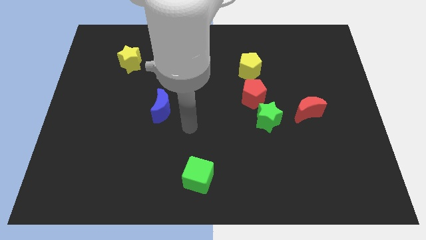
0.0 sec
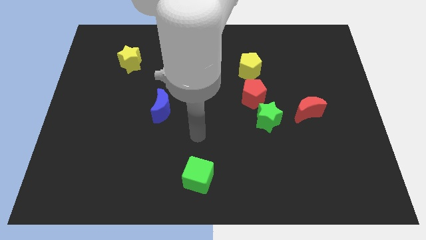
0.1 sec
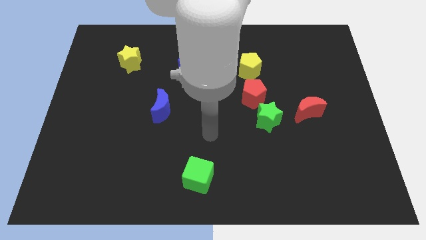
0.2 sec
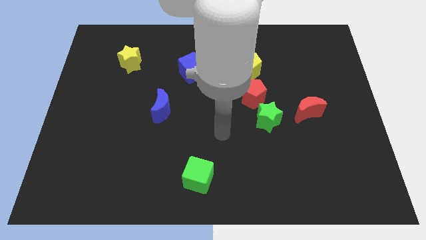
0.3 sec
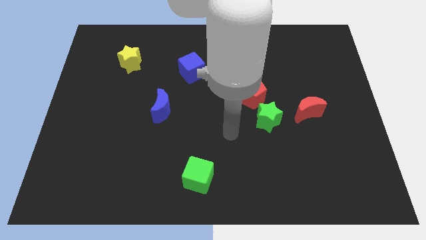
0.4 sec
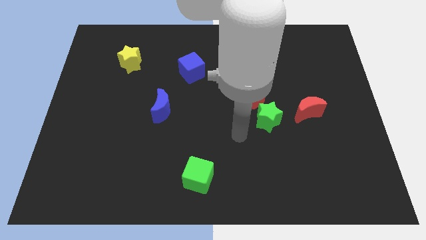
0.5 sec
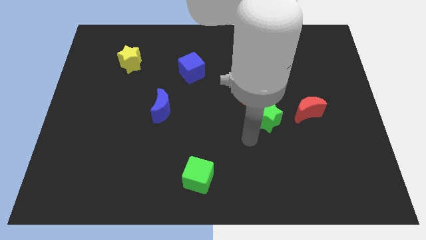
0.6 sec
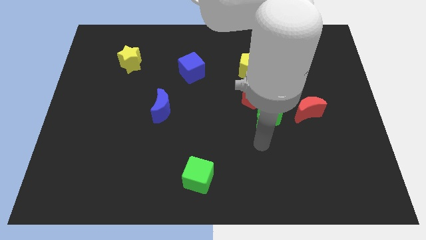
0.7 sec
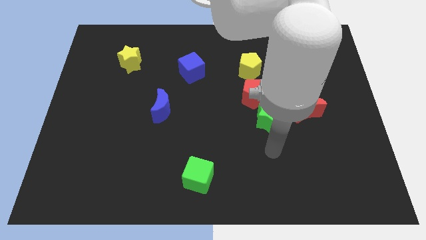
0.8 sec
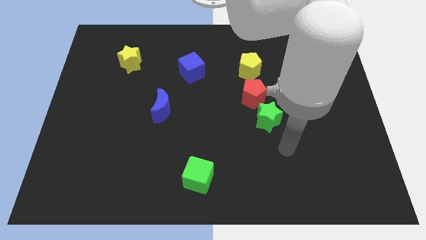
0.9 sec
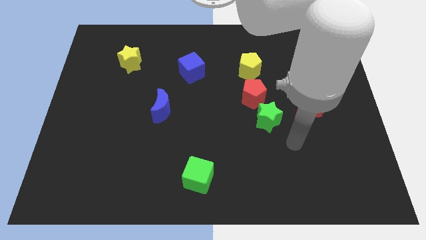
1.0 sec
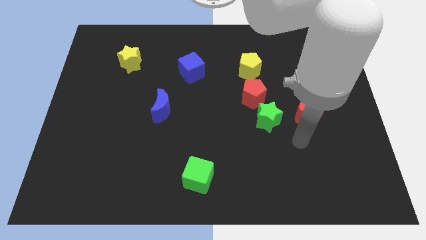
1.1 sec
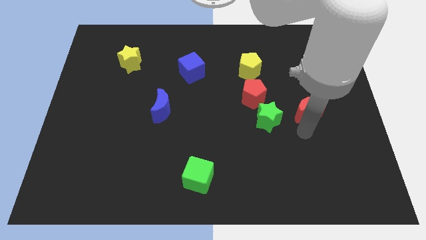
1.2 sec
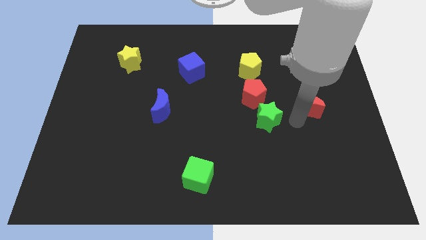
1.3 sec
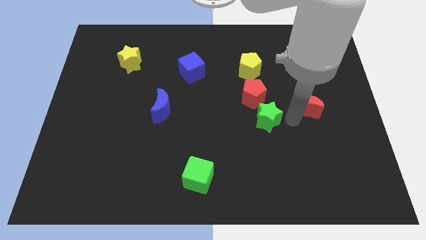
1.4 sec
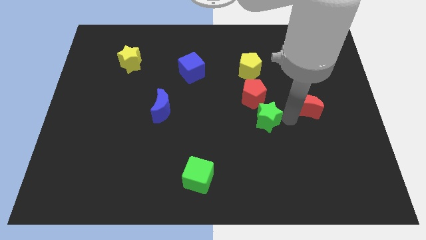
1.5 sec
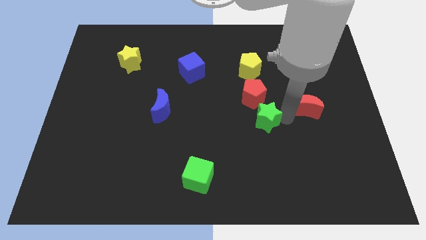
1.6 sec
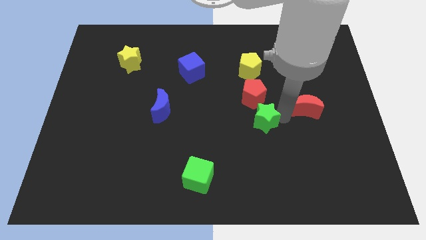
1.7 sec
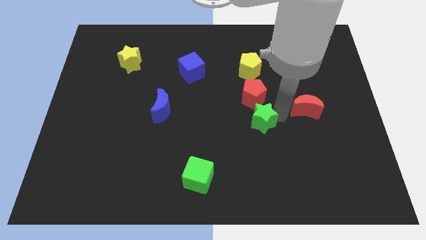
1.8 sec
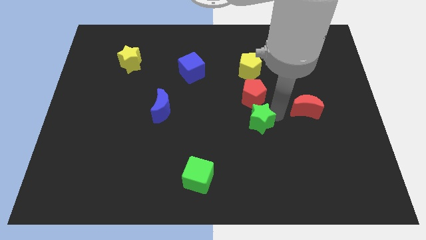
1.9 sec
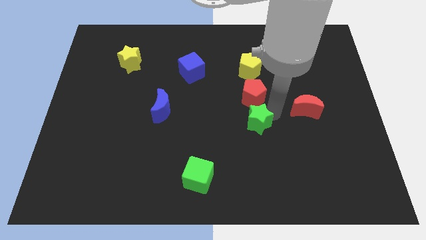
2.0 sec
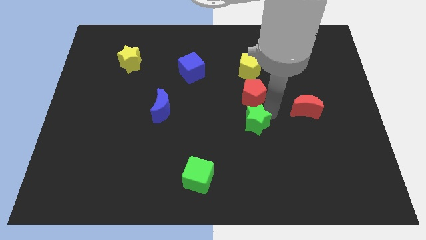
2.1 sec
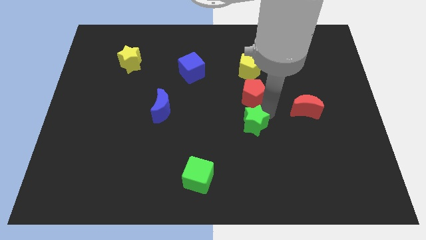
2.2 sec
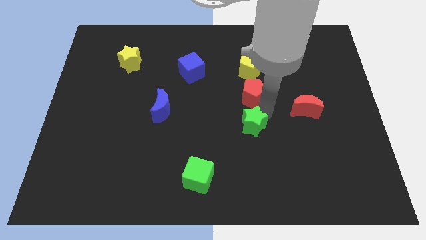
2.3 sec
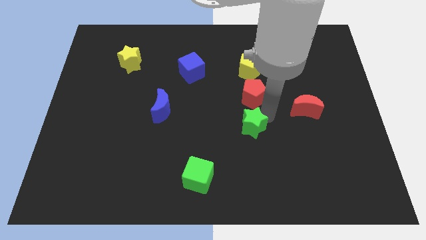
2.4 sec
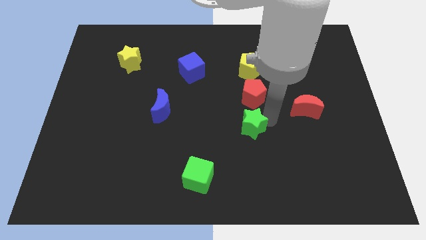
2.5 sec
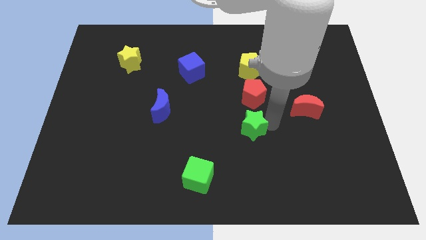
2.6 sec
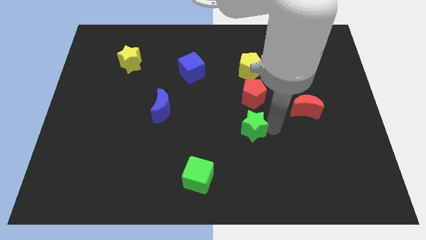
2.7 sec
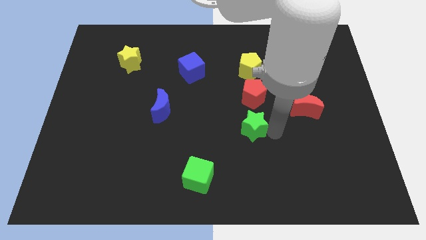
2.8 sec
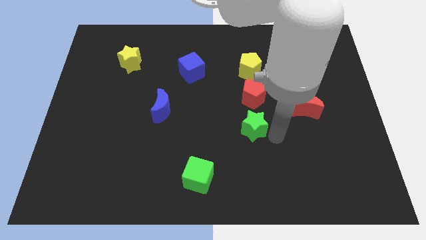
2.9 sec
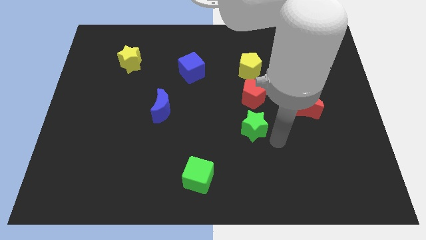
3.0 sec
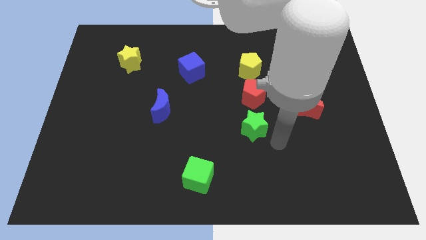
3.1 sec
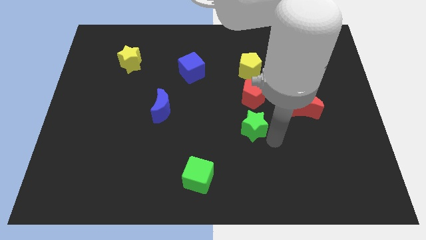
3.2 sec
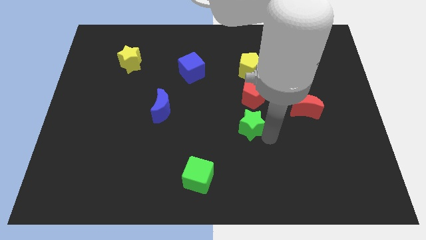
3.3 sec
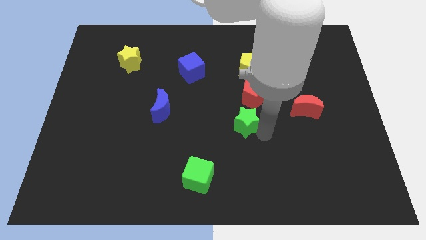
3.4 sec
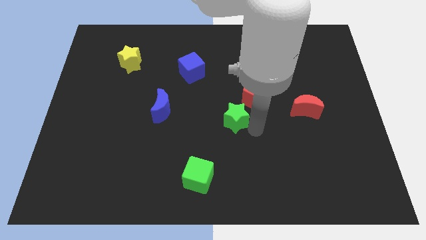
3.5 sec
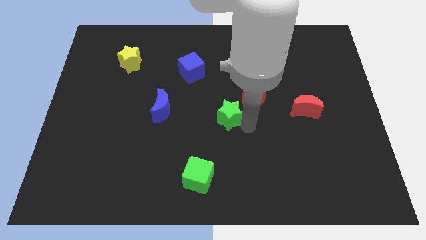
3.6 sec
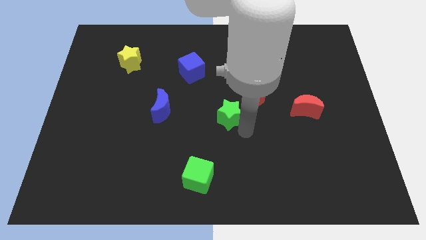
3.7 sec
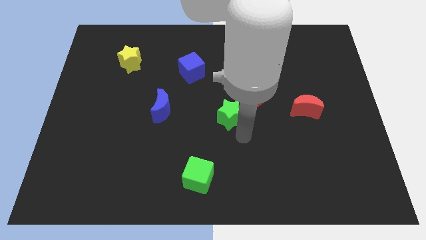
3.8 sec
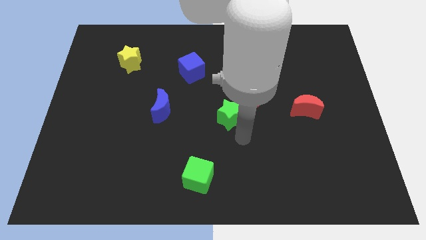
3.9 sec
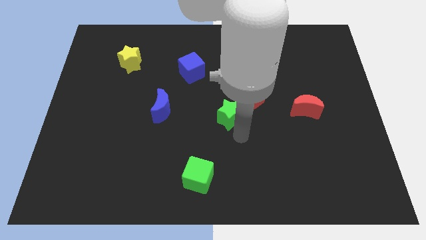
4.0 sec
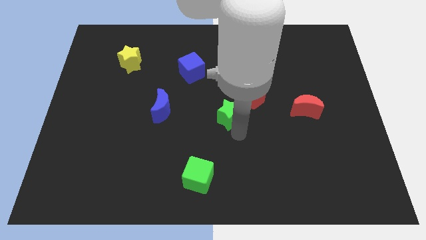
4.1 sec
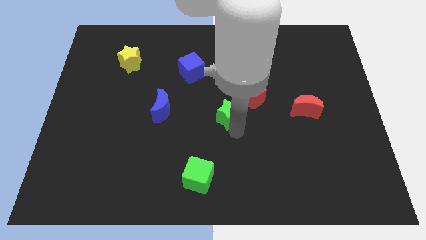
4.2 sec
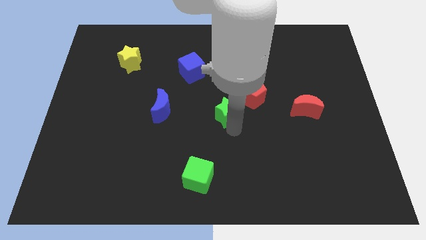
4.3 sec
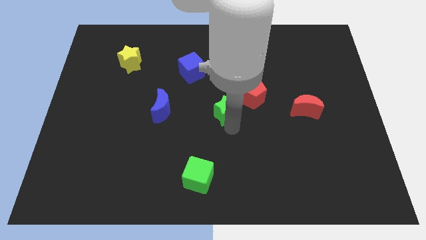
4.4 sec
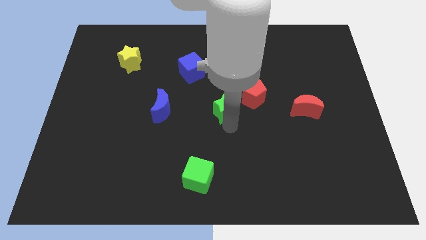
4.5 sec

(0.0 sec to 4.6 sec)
move the green star somewhat diagonally up and left

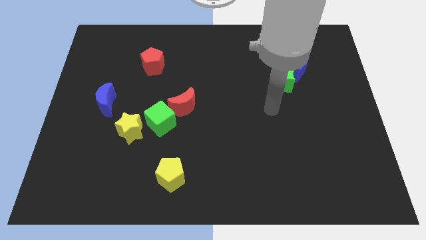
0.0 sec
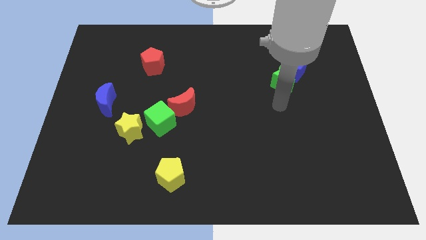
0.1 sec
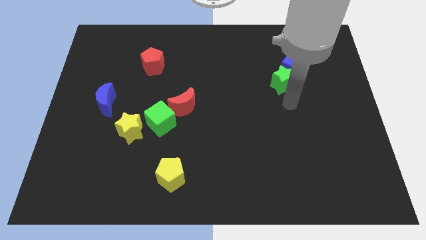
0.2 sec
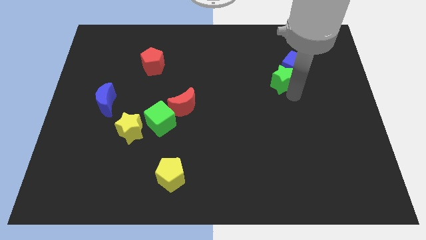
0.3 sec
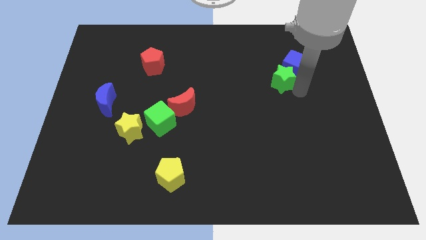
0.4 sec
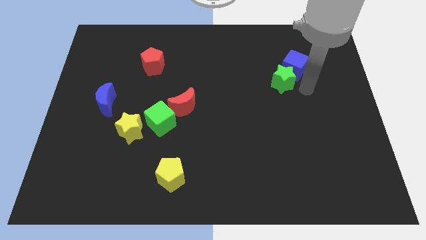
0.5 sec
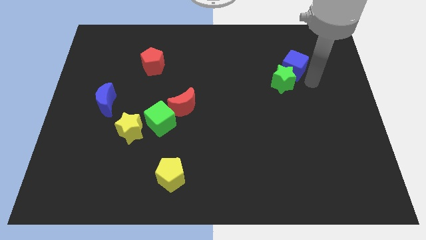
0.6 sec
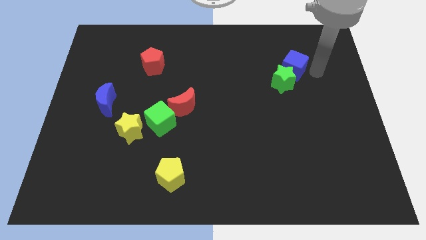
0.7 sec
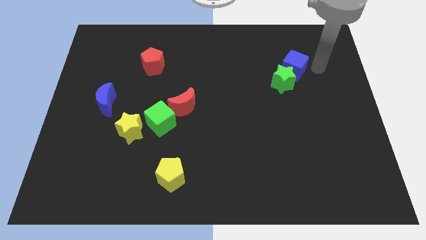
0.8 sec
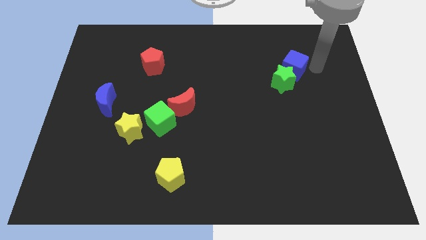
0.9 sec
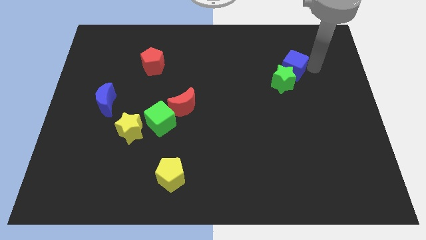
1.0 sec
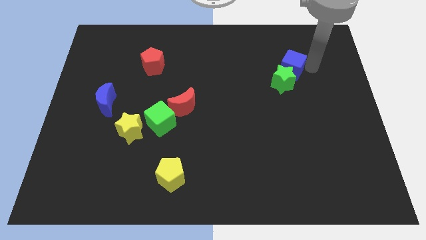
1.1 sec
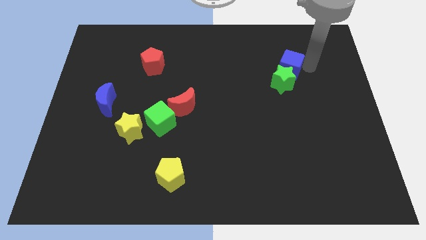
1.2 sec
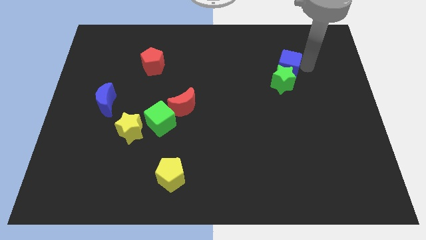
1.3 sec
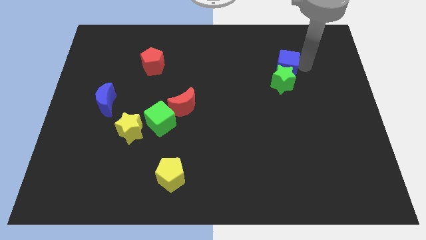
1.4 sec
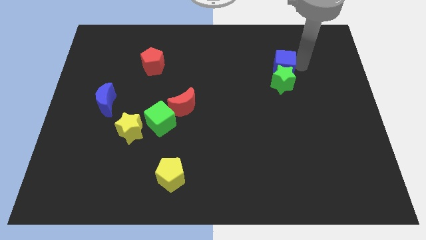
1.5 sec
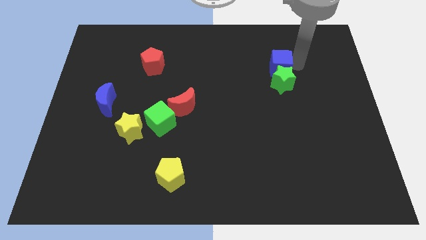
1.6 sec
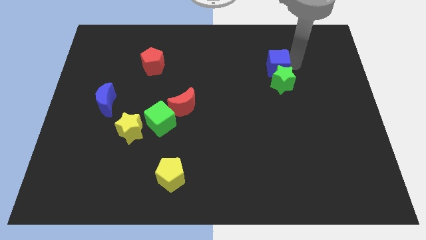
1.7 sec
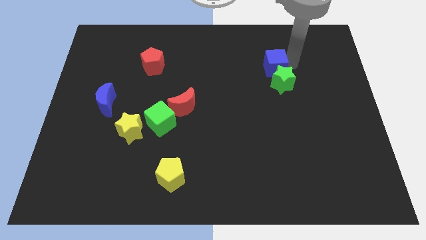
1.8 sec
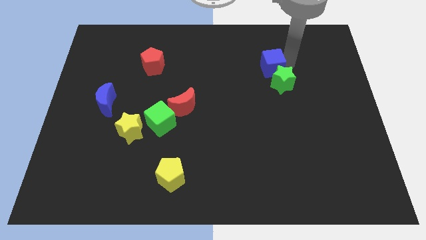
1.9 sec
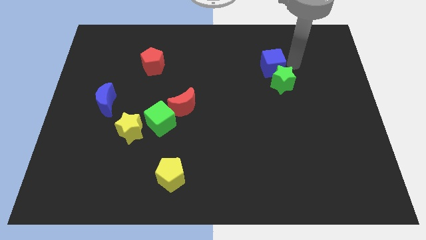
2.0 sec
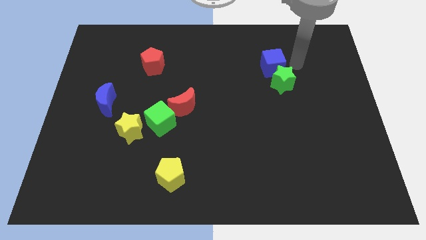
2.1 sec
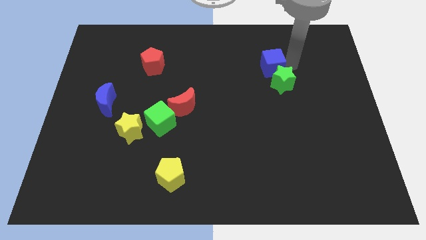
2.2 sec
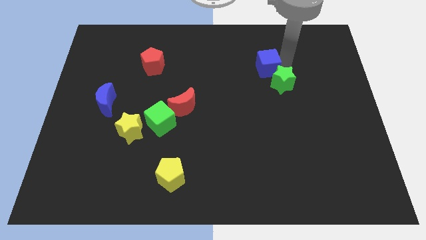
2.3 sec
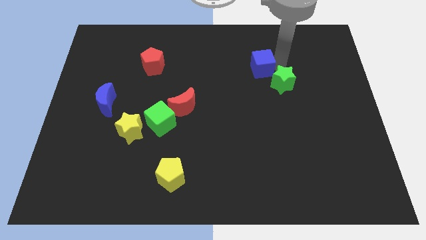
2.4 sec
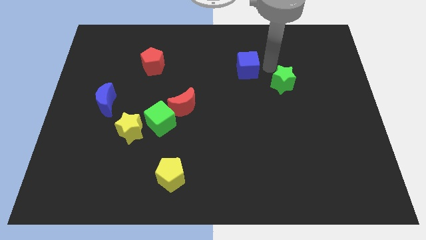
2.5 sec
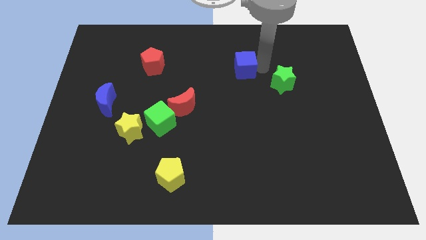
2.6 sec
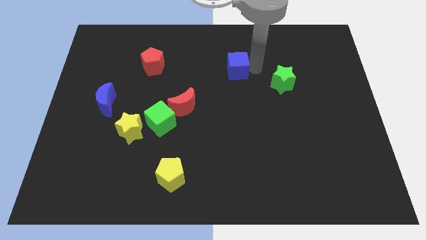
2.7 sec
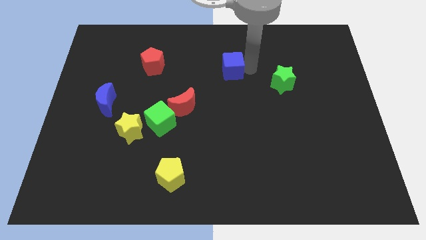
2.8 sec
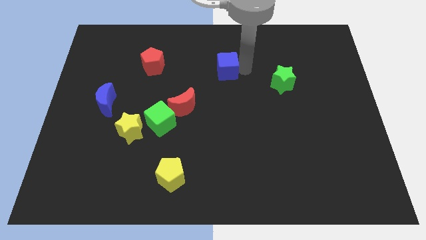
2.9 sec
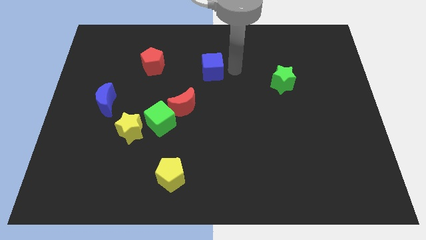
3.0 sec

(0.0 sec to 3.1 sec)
move the blue cube left

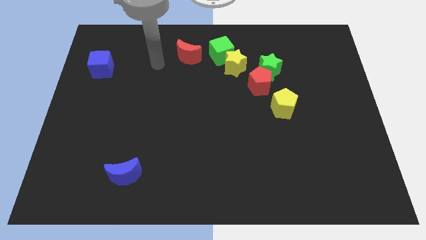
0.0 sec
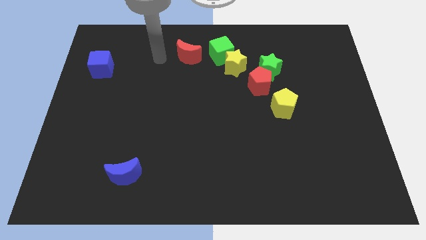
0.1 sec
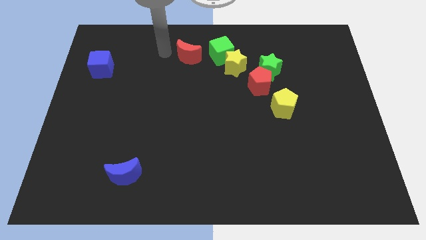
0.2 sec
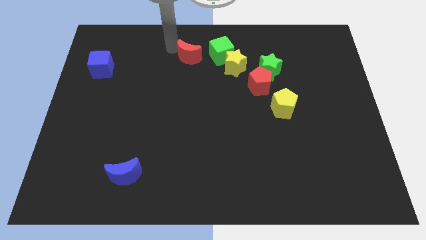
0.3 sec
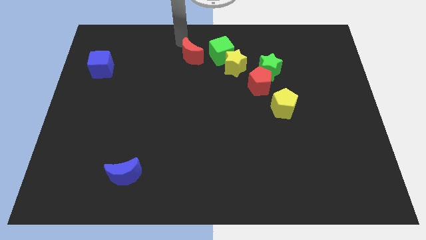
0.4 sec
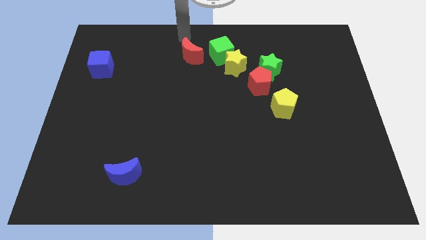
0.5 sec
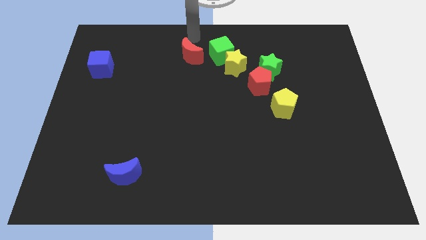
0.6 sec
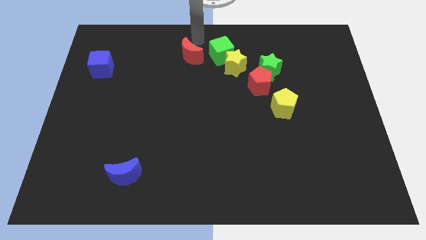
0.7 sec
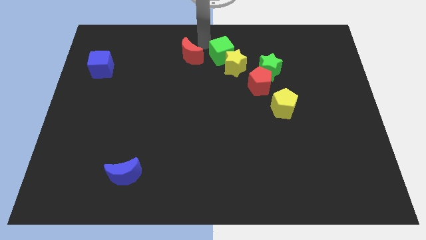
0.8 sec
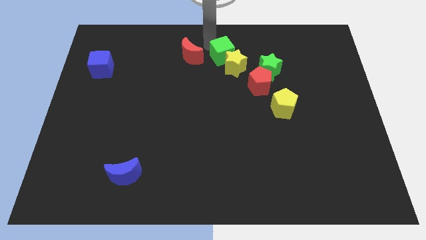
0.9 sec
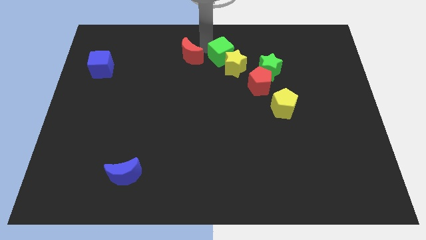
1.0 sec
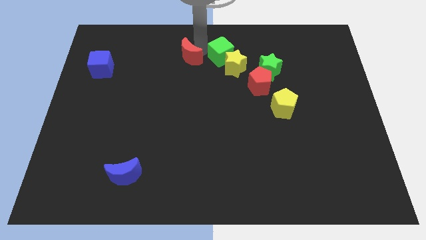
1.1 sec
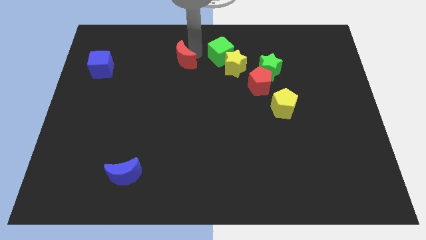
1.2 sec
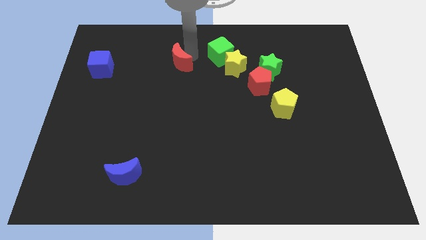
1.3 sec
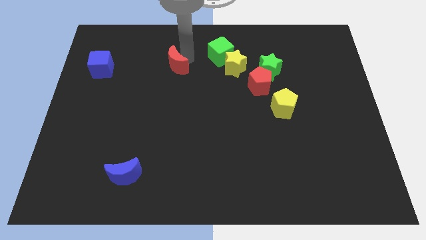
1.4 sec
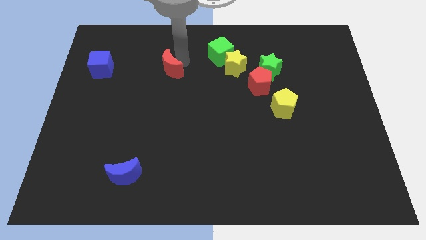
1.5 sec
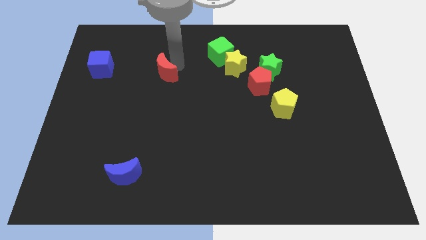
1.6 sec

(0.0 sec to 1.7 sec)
slide the red moon downwards and left diagonally a little
